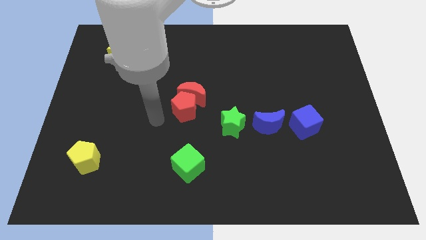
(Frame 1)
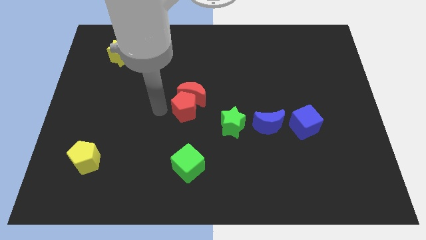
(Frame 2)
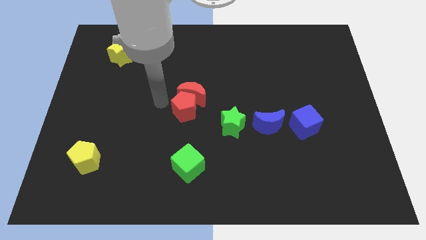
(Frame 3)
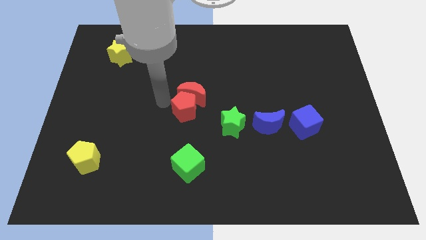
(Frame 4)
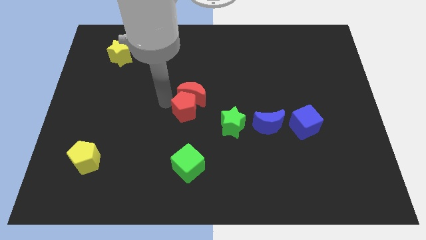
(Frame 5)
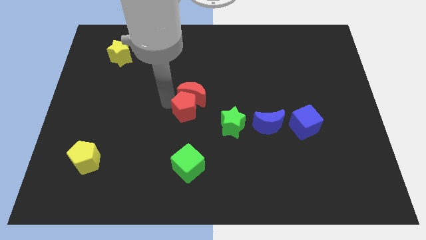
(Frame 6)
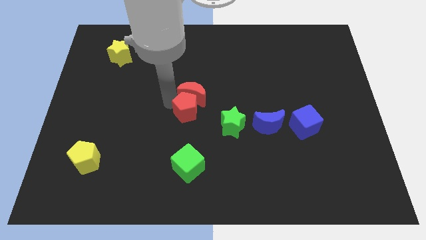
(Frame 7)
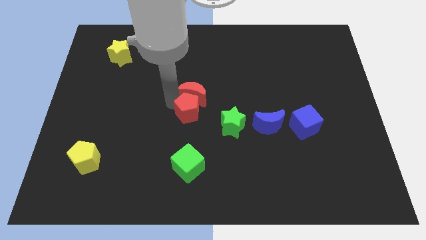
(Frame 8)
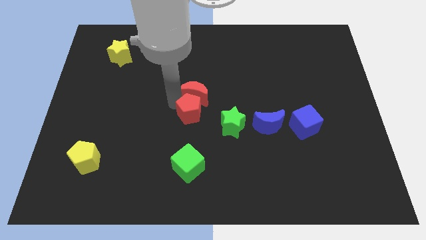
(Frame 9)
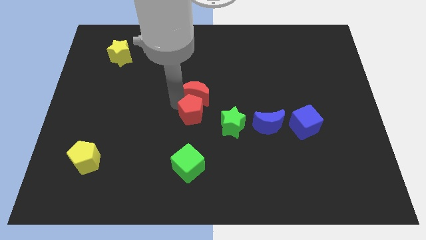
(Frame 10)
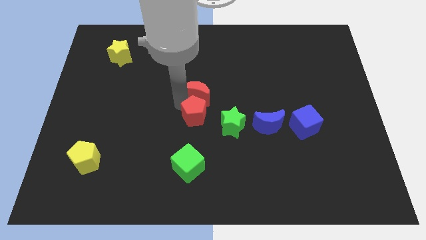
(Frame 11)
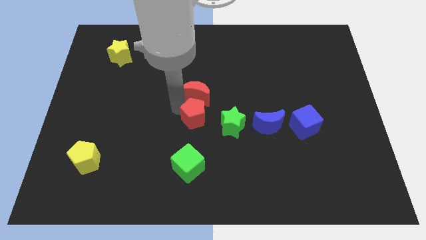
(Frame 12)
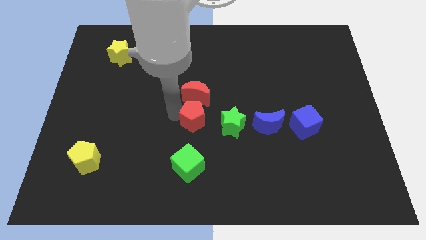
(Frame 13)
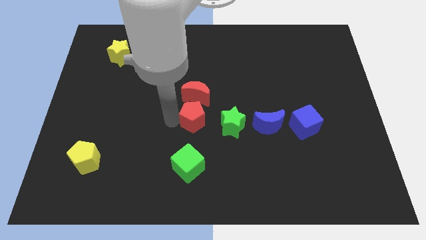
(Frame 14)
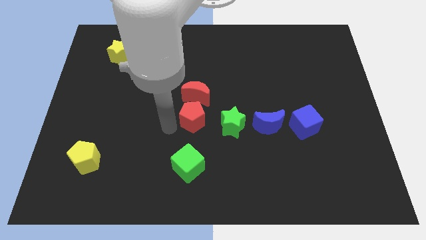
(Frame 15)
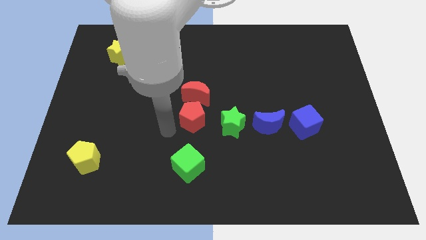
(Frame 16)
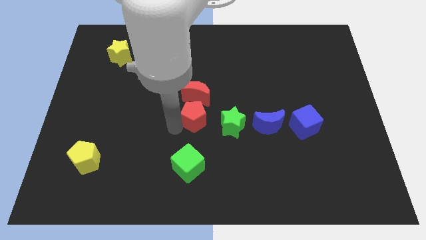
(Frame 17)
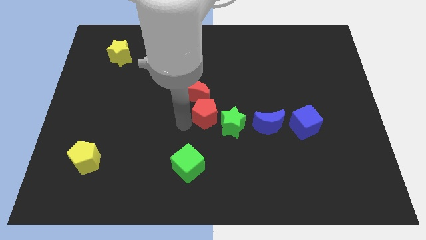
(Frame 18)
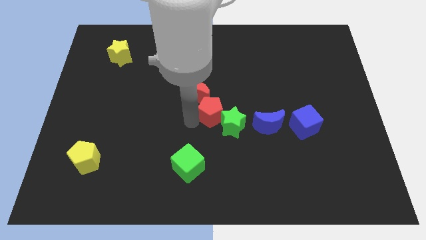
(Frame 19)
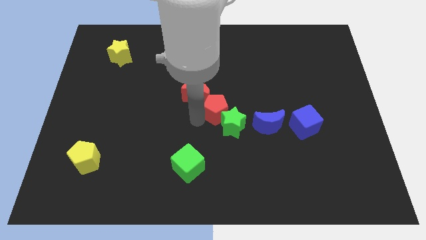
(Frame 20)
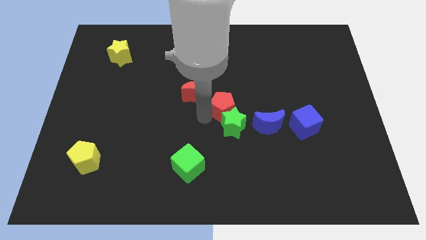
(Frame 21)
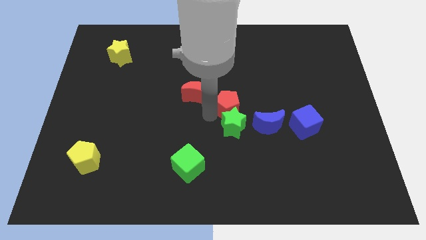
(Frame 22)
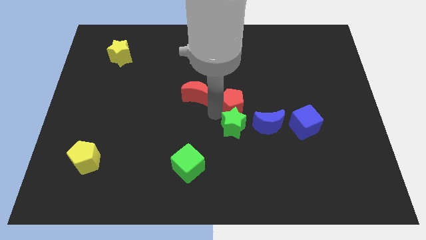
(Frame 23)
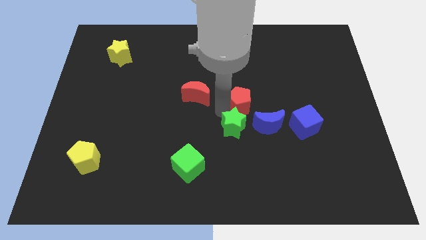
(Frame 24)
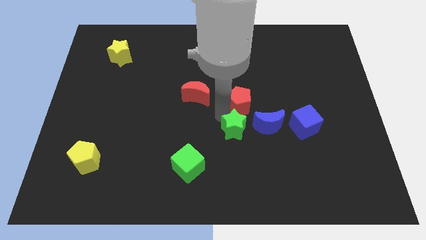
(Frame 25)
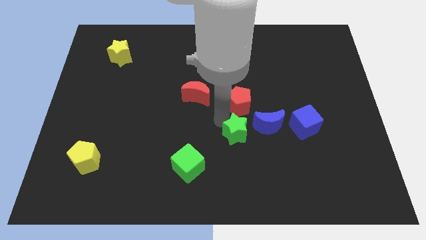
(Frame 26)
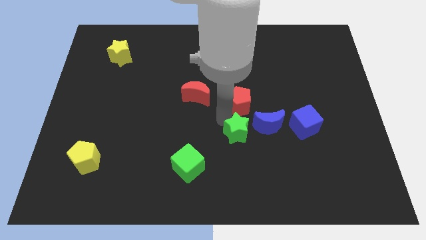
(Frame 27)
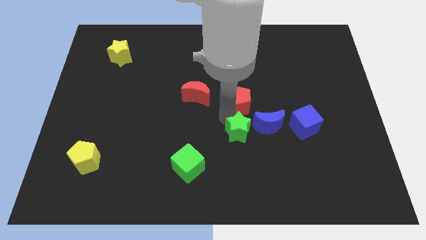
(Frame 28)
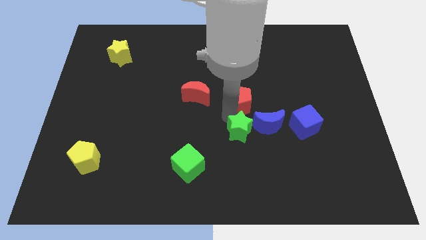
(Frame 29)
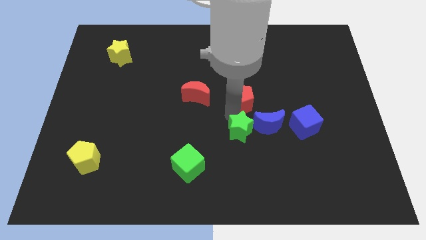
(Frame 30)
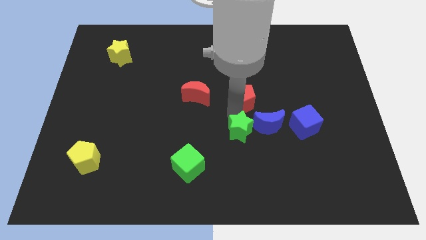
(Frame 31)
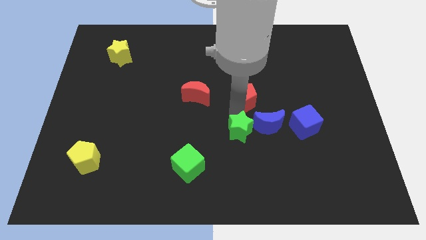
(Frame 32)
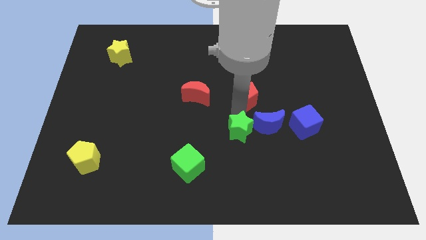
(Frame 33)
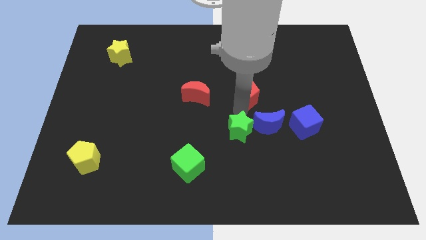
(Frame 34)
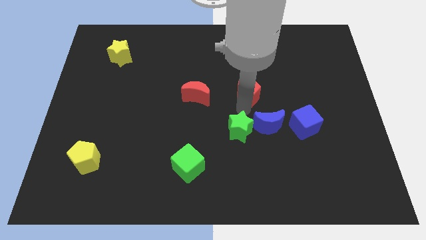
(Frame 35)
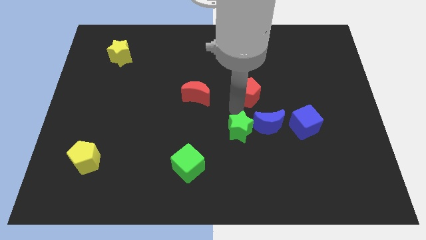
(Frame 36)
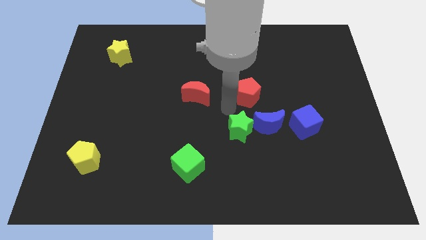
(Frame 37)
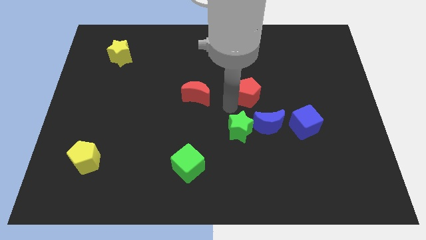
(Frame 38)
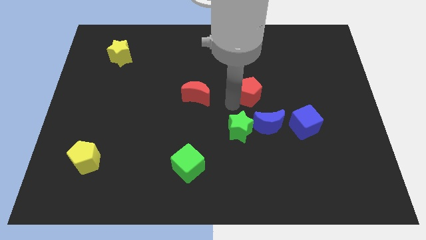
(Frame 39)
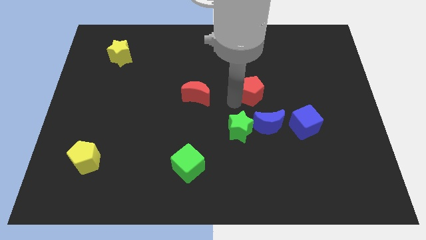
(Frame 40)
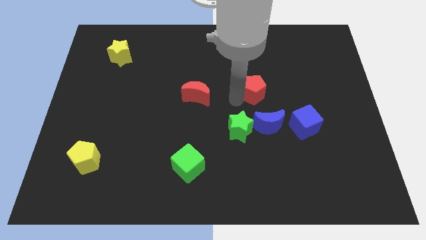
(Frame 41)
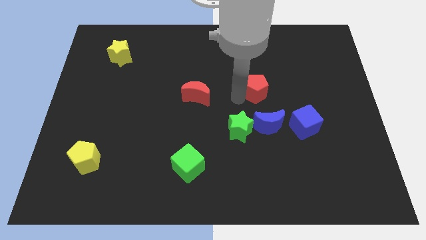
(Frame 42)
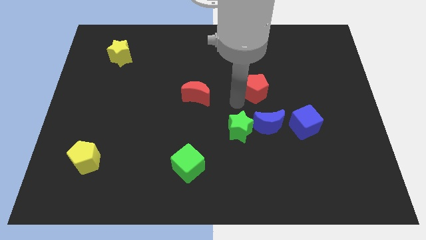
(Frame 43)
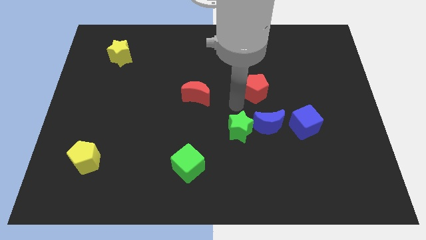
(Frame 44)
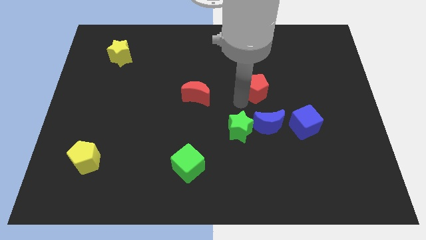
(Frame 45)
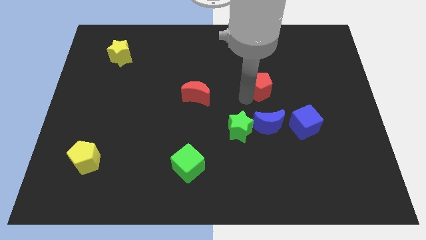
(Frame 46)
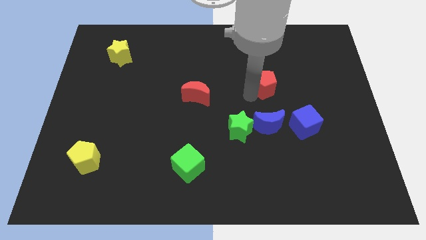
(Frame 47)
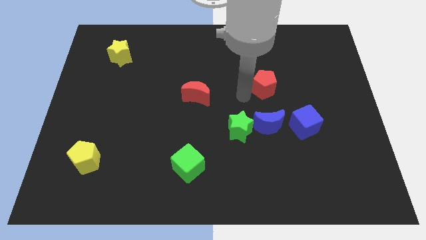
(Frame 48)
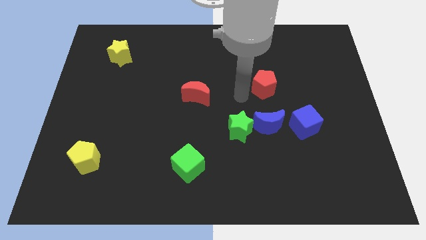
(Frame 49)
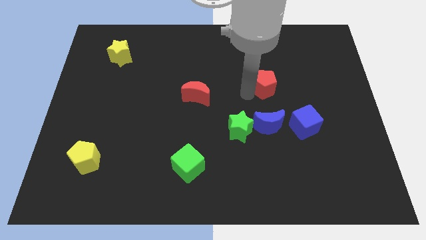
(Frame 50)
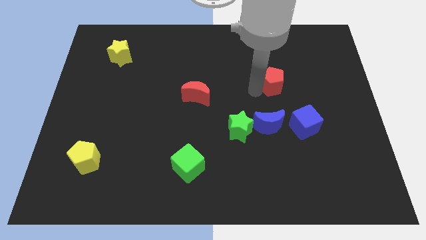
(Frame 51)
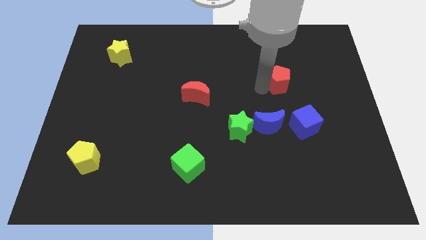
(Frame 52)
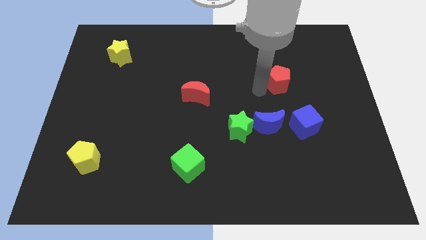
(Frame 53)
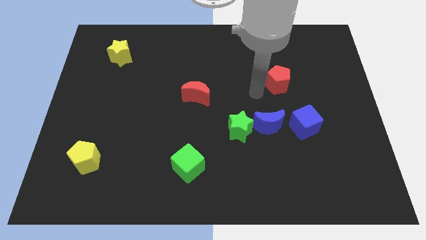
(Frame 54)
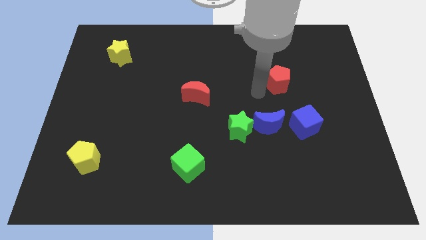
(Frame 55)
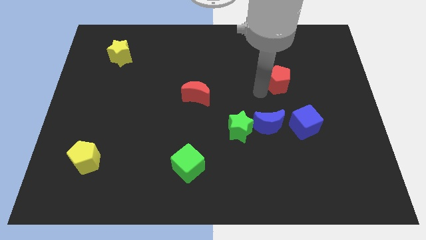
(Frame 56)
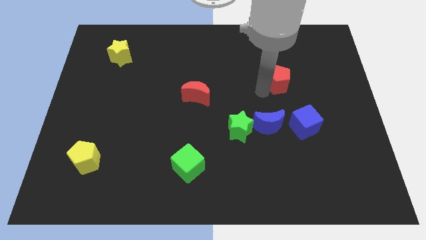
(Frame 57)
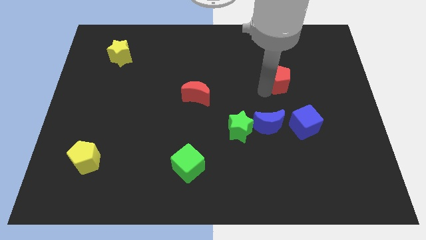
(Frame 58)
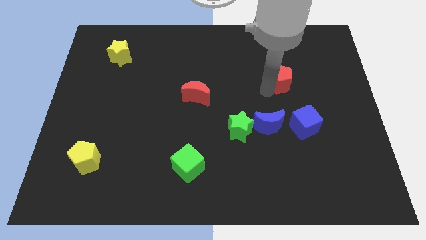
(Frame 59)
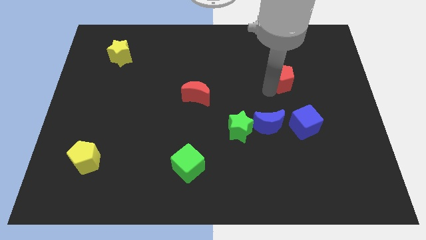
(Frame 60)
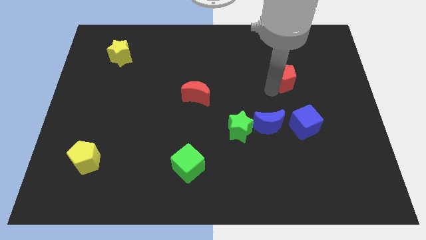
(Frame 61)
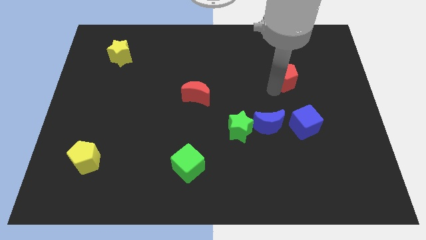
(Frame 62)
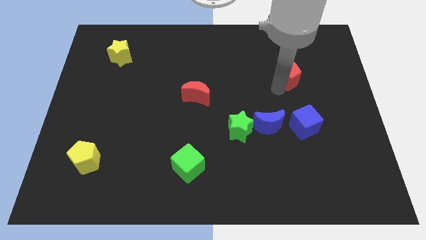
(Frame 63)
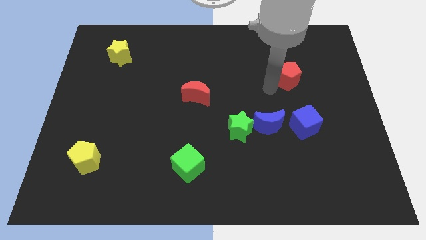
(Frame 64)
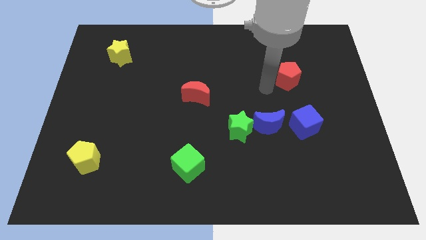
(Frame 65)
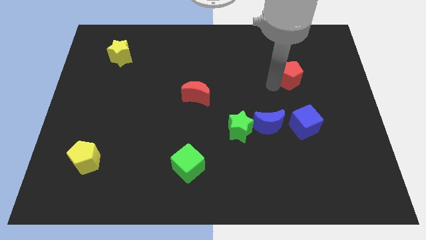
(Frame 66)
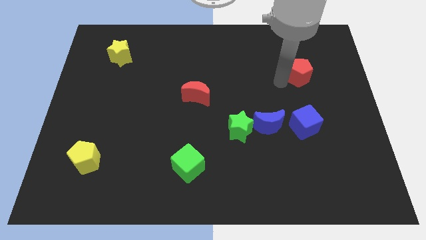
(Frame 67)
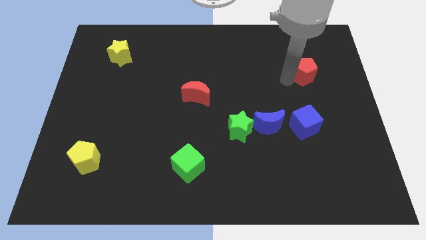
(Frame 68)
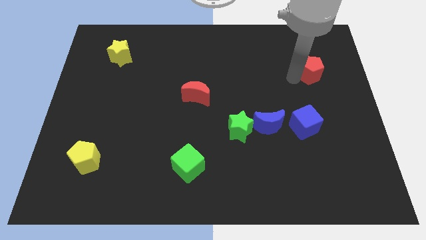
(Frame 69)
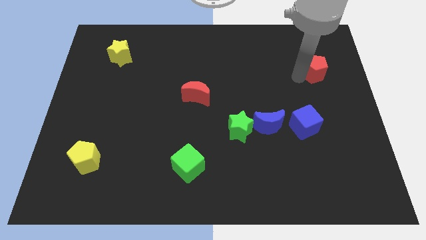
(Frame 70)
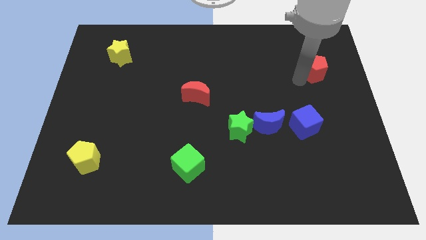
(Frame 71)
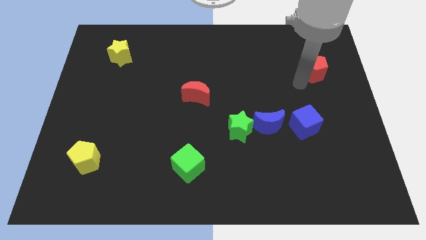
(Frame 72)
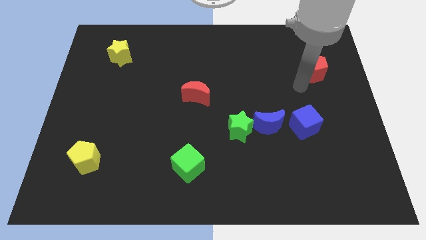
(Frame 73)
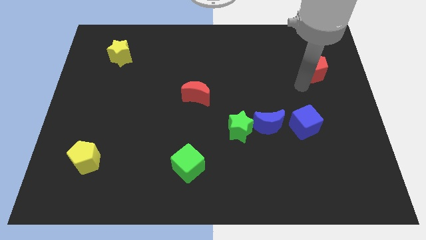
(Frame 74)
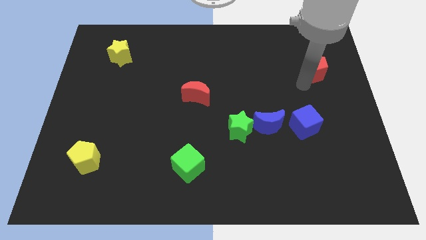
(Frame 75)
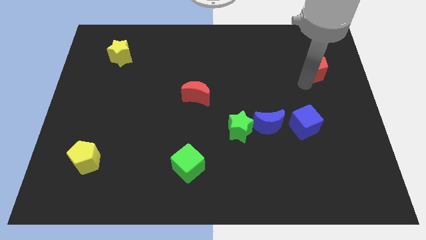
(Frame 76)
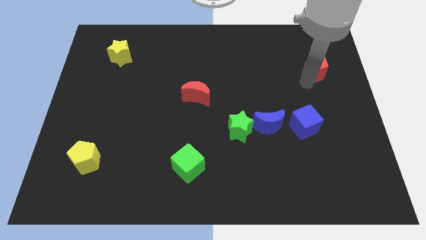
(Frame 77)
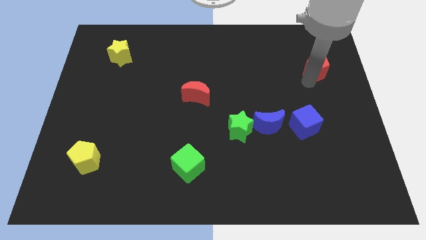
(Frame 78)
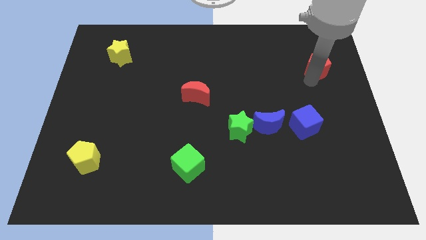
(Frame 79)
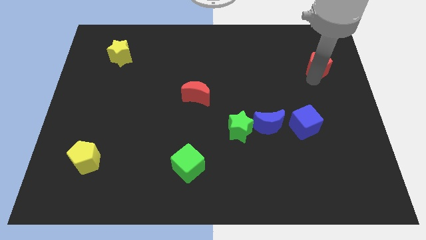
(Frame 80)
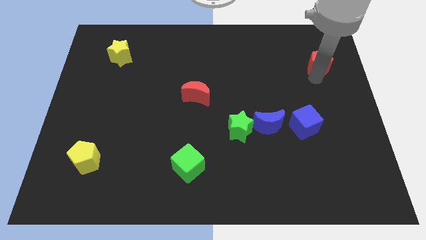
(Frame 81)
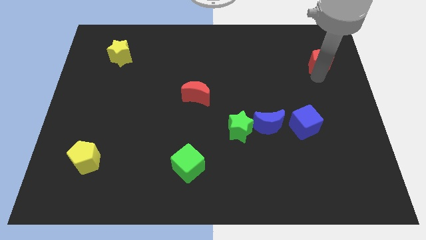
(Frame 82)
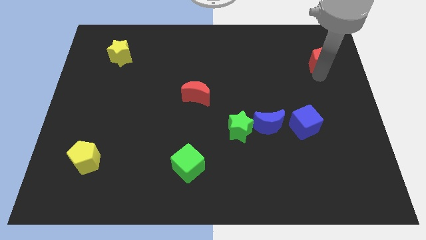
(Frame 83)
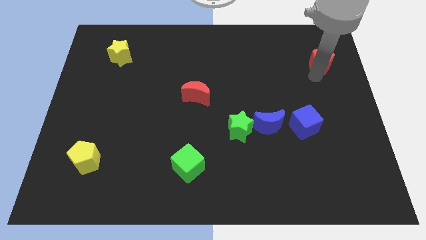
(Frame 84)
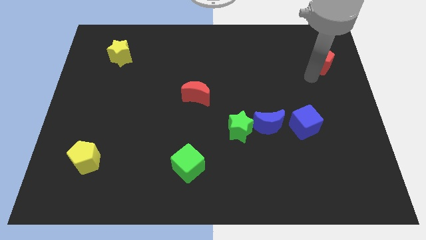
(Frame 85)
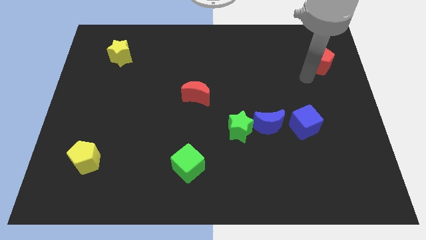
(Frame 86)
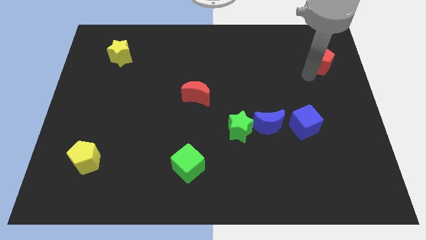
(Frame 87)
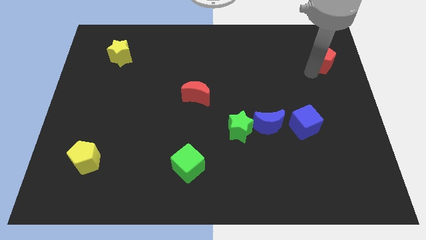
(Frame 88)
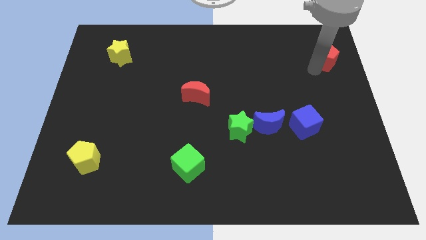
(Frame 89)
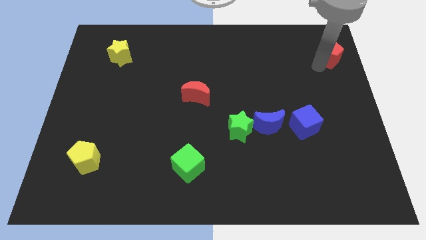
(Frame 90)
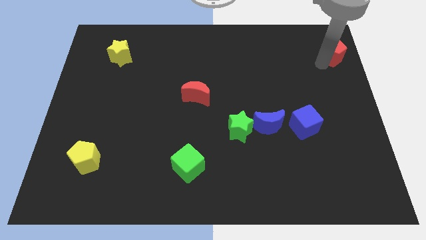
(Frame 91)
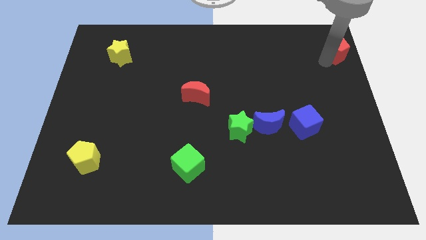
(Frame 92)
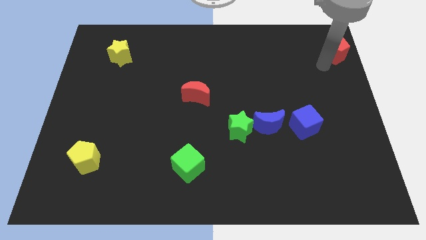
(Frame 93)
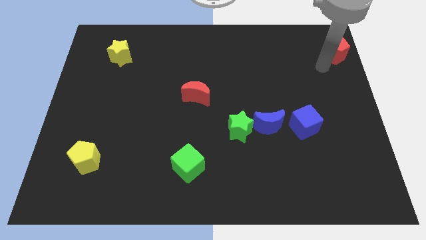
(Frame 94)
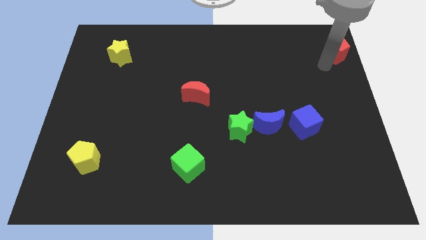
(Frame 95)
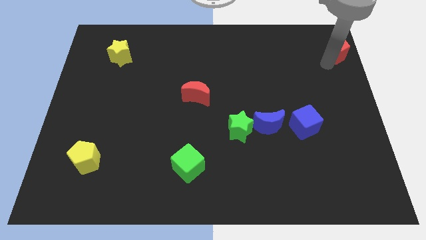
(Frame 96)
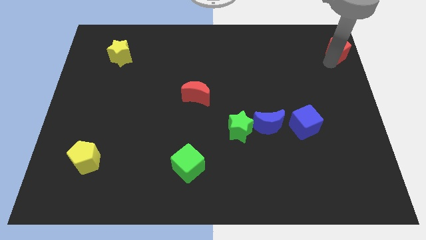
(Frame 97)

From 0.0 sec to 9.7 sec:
slide the red pentagon to the top right
